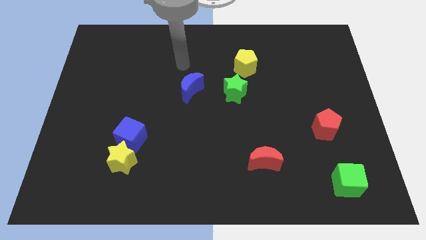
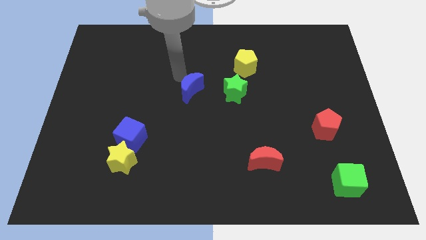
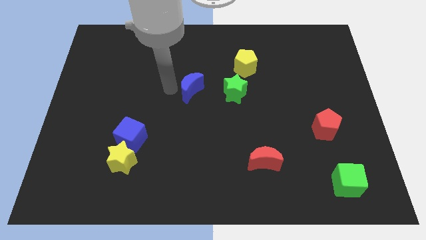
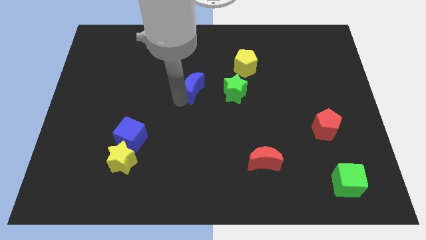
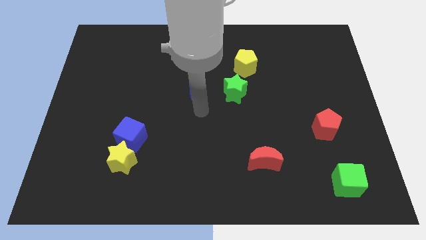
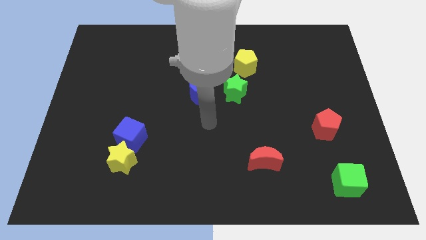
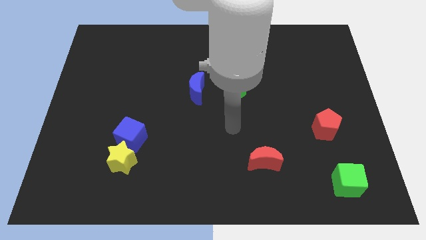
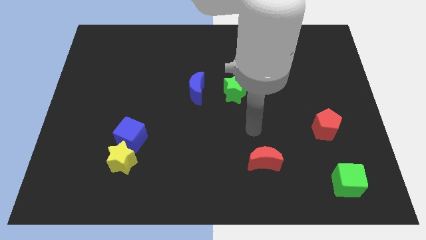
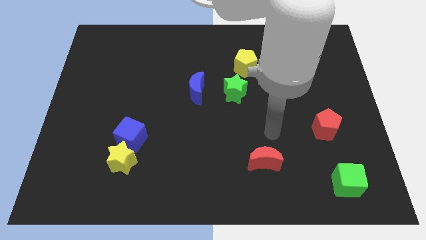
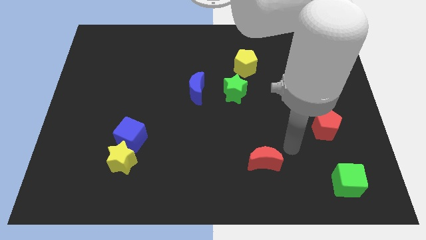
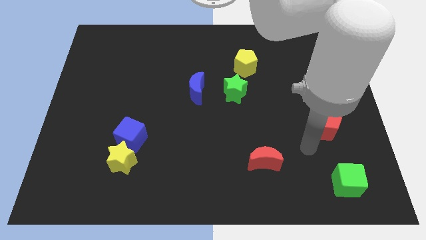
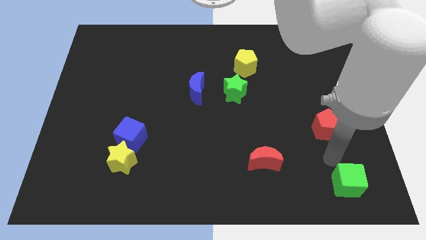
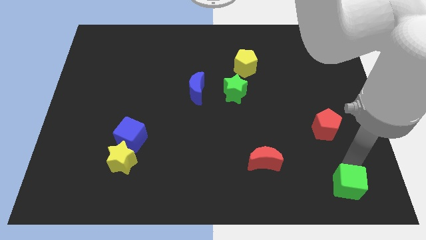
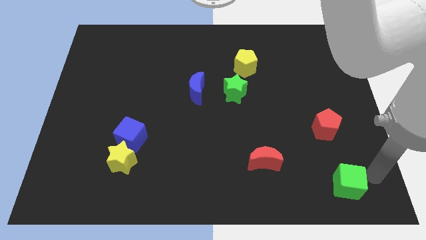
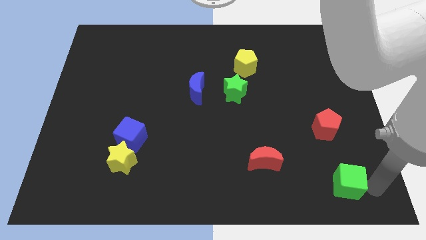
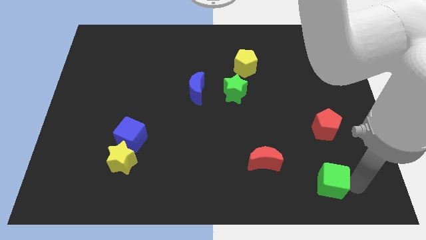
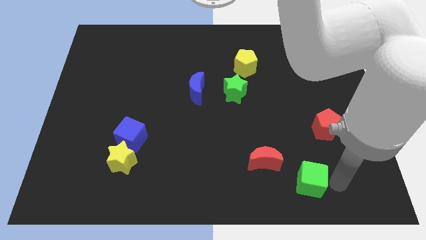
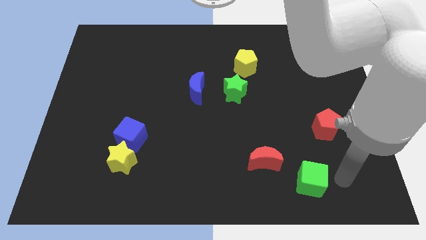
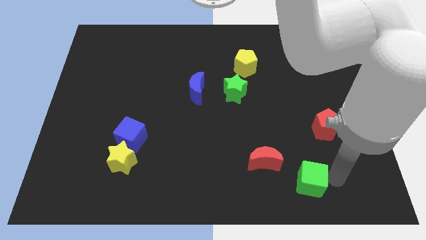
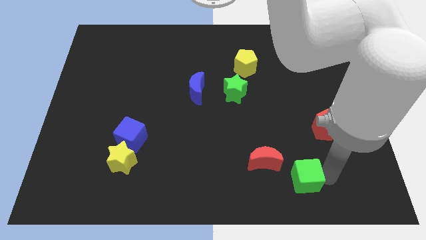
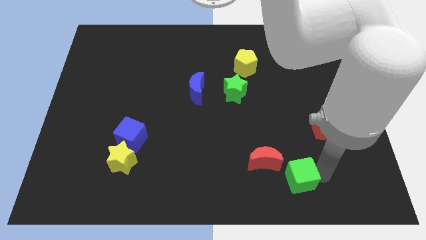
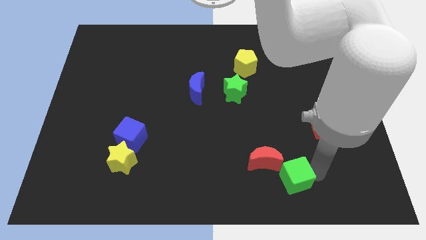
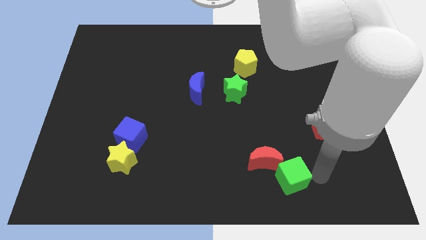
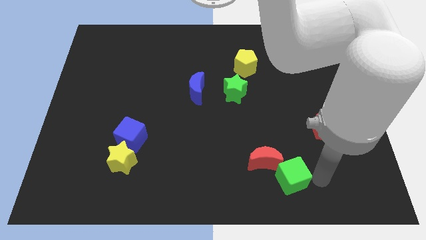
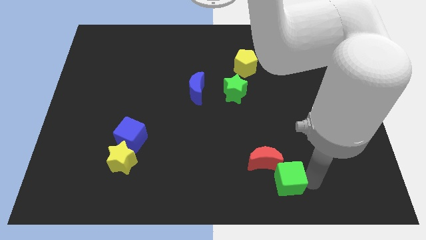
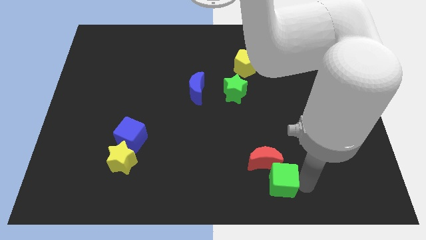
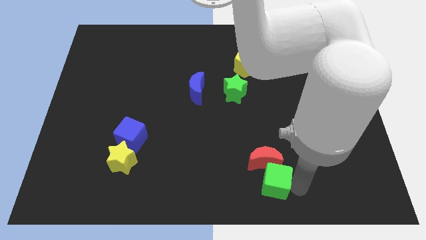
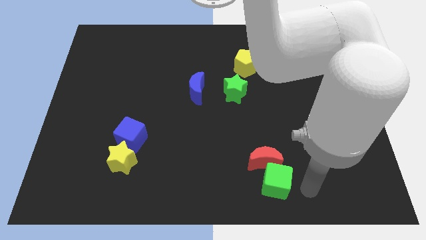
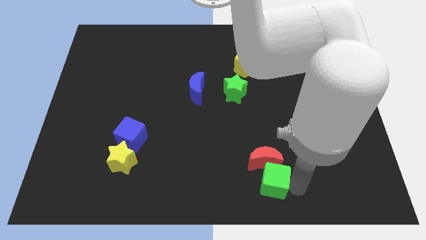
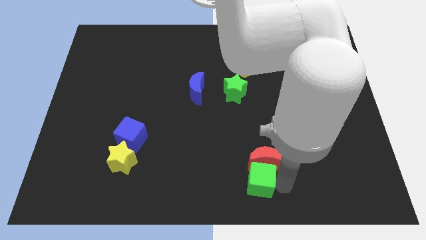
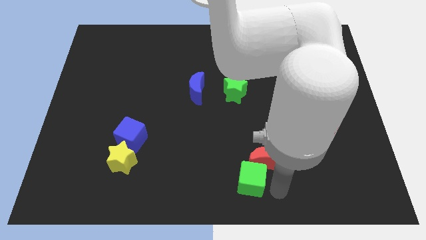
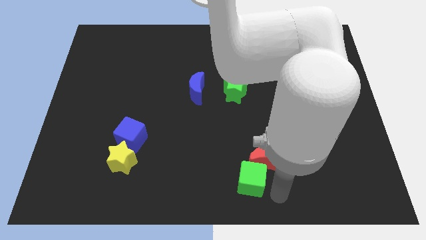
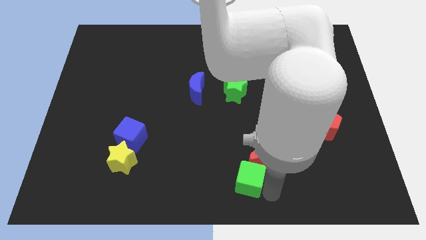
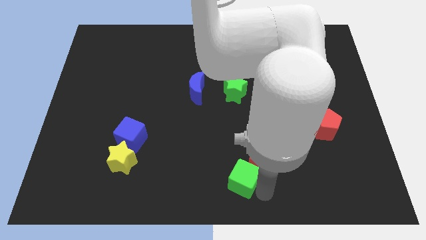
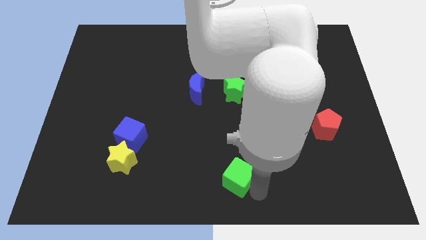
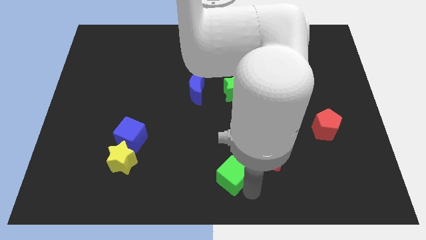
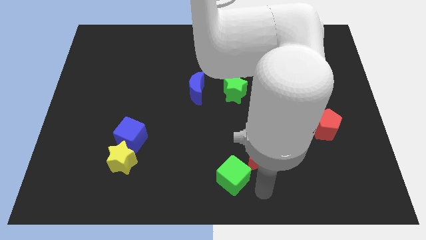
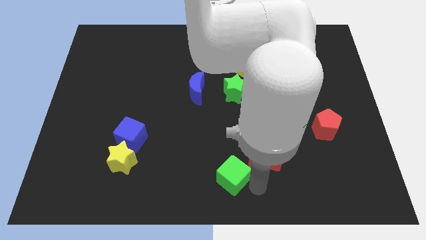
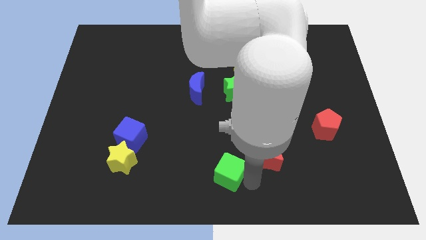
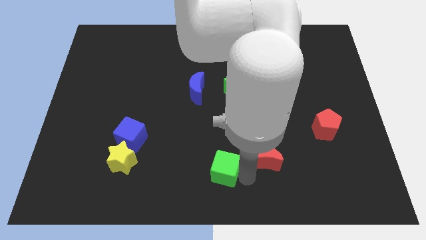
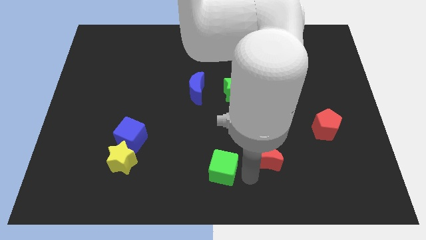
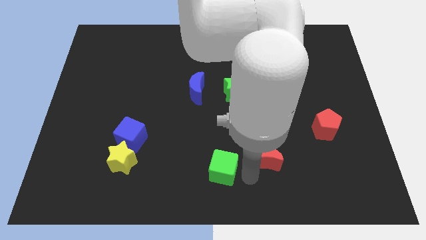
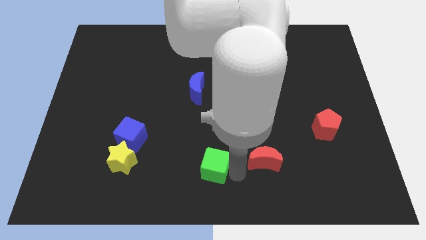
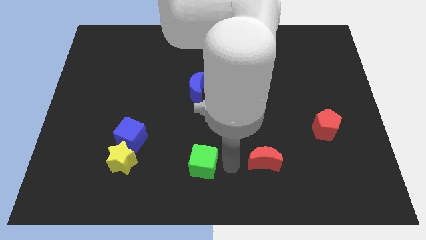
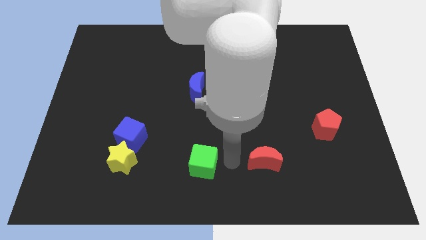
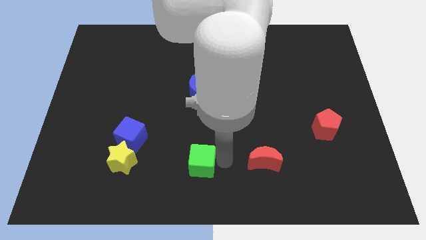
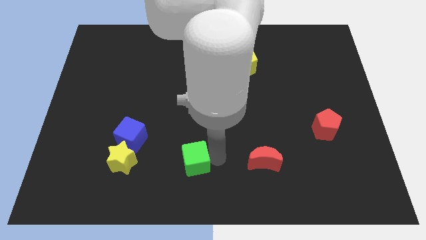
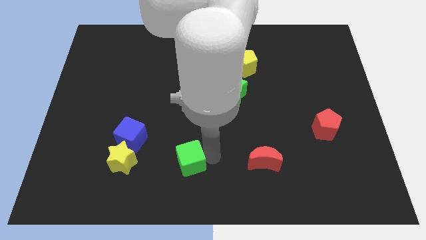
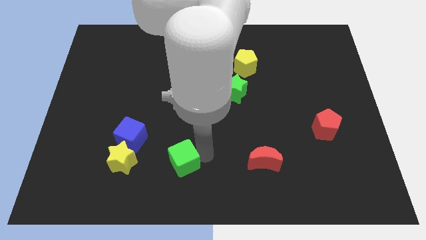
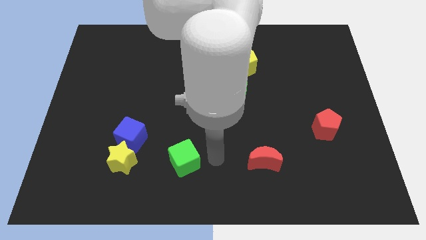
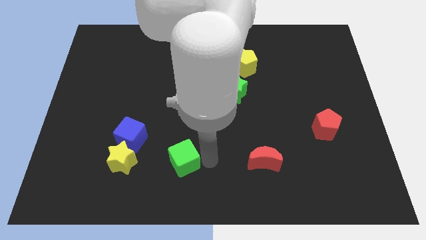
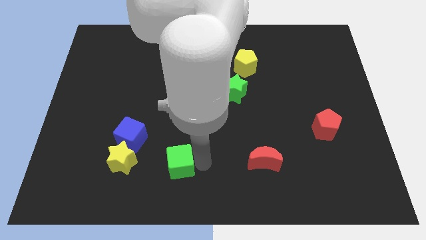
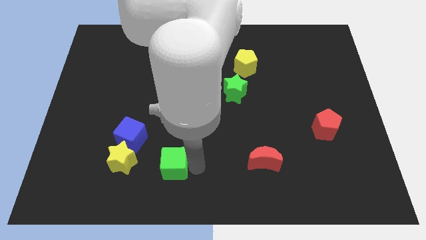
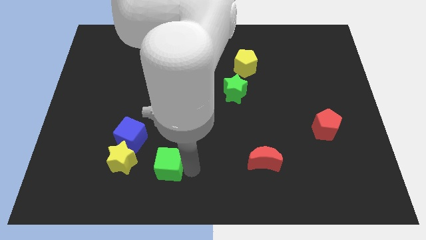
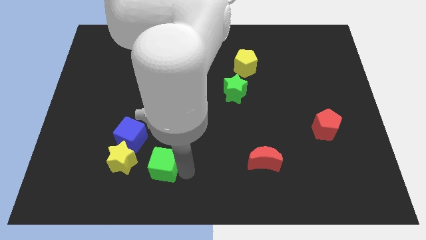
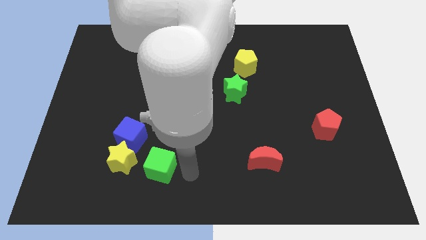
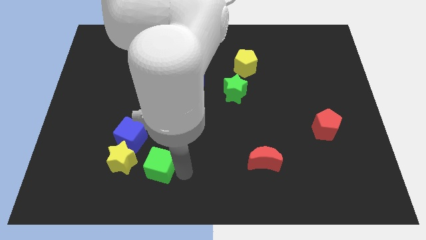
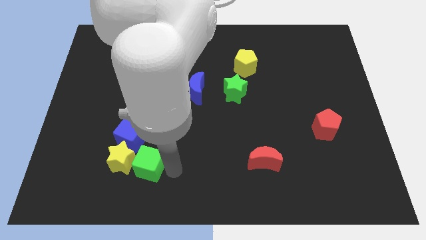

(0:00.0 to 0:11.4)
push the green cube towards the yellow star

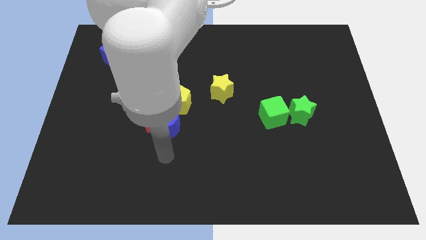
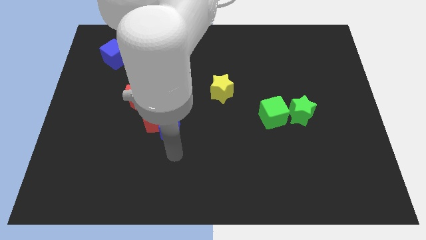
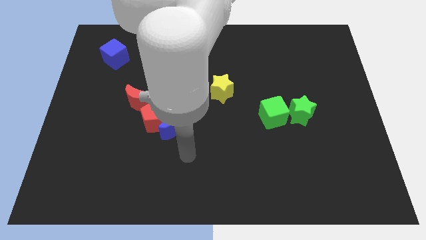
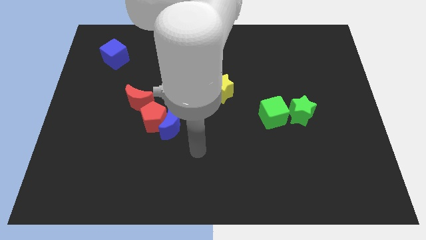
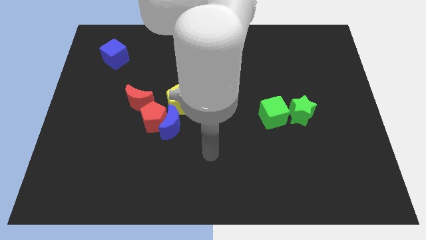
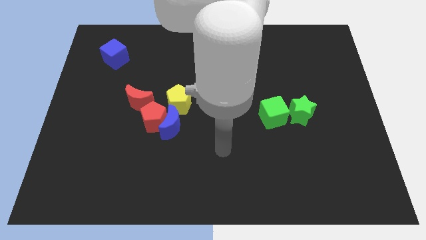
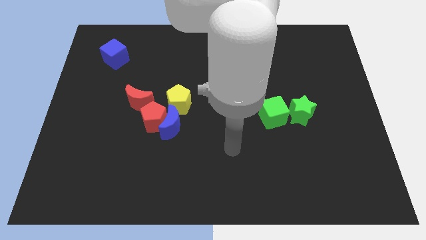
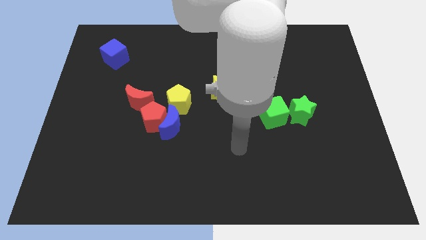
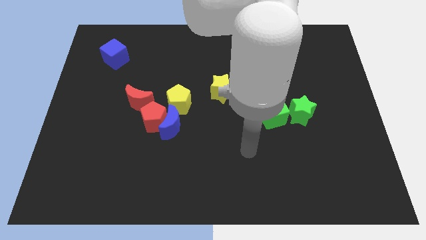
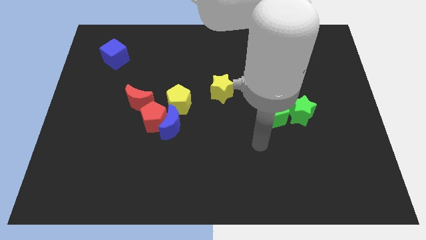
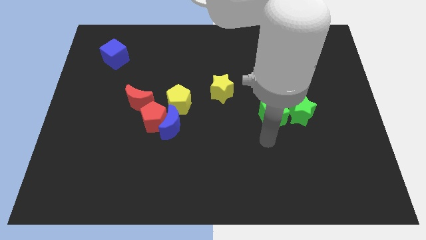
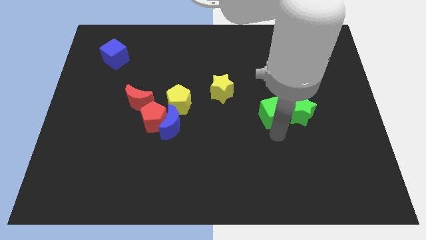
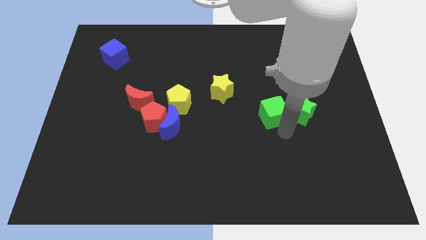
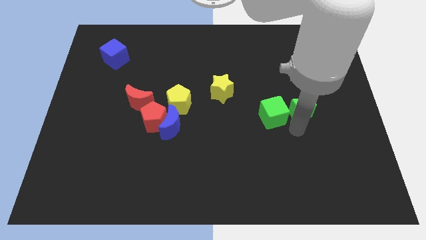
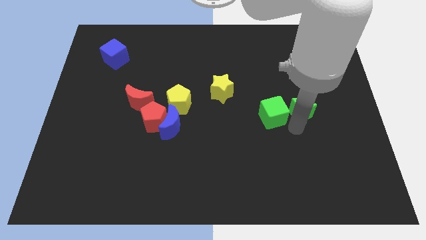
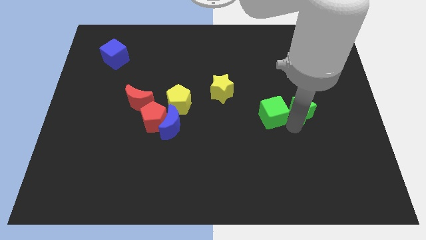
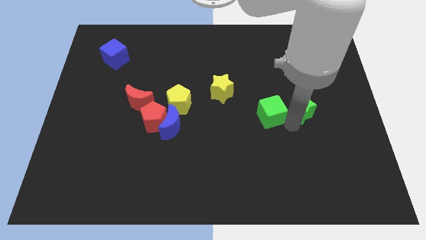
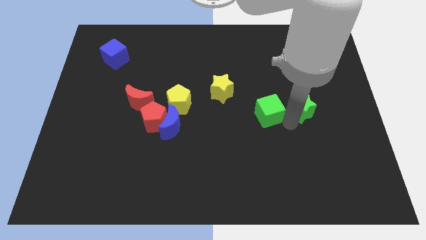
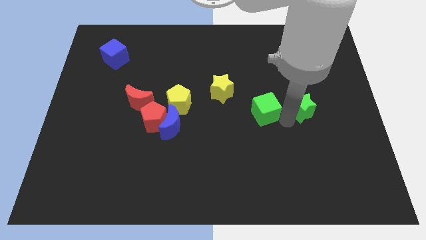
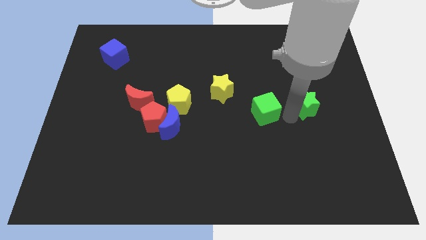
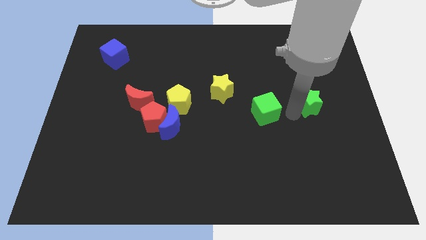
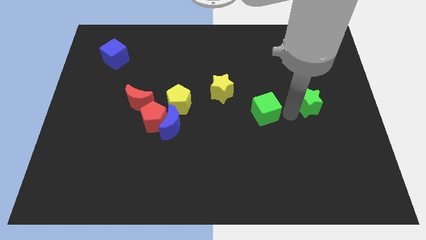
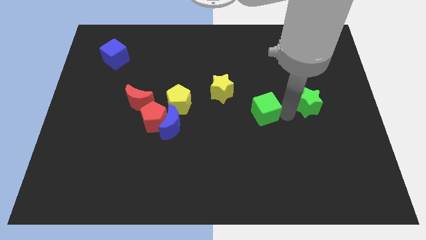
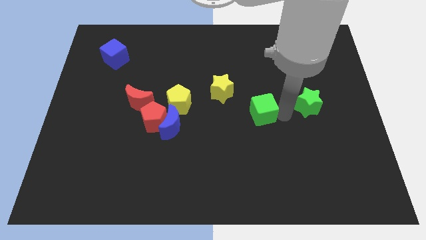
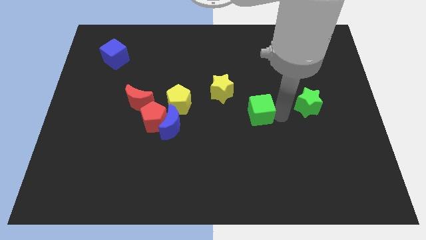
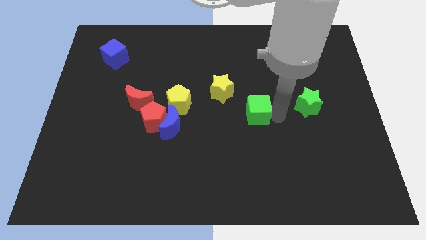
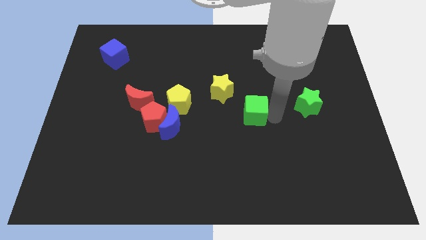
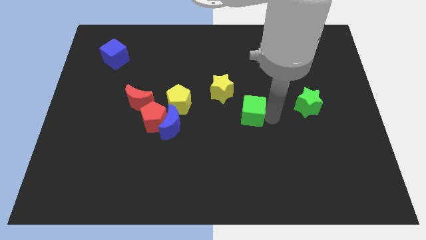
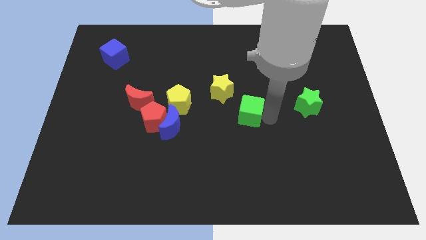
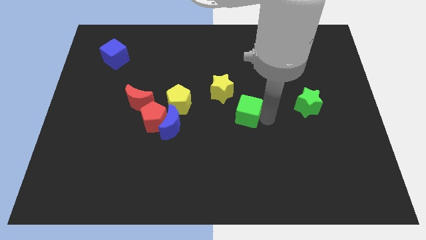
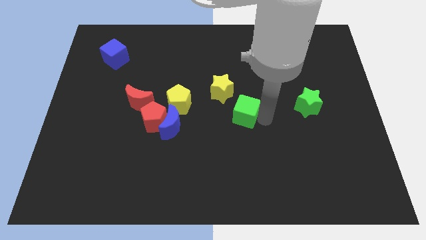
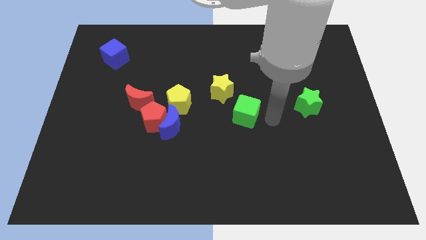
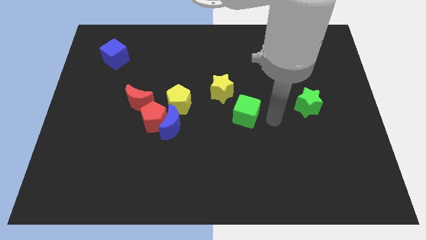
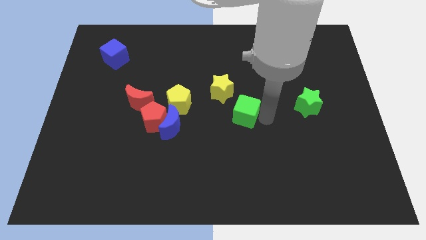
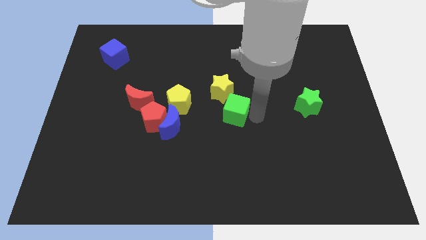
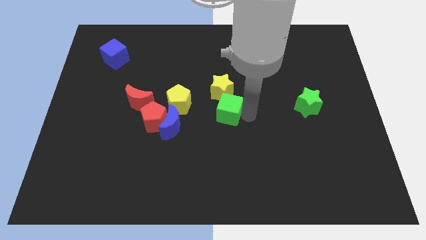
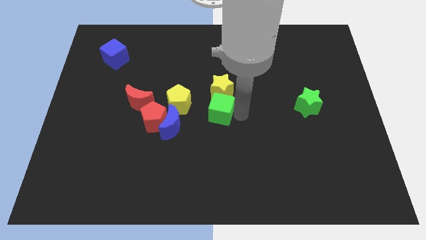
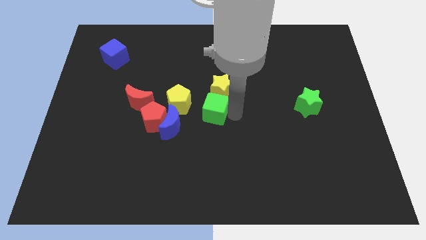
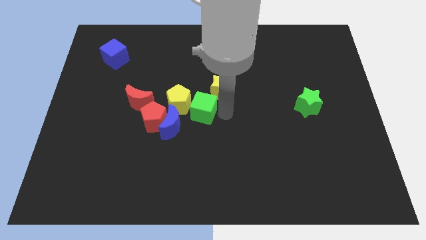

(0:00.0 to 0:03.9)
put the green cube close to the yellow pentagon
